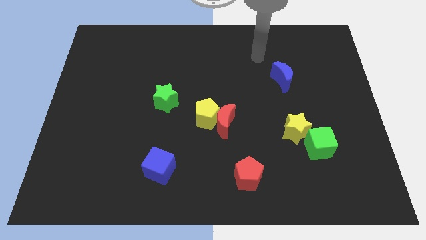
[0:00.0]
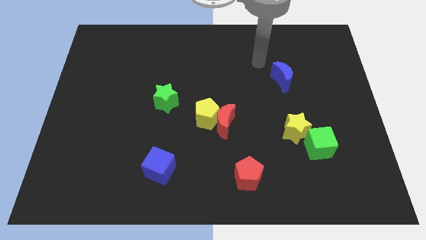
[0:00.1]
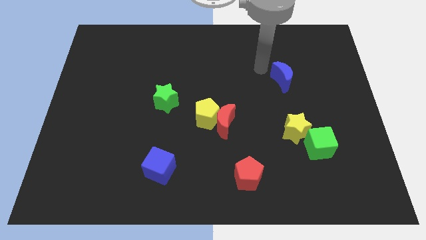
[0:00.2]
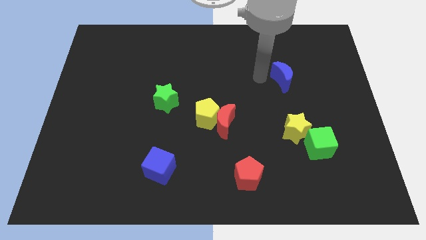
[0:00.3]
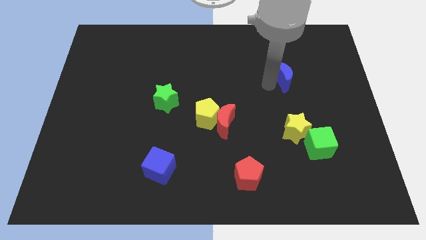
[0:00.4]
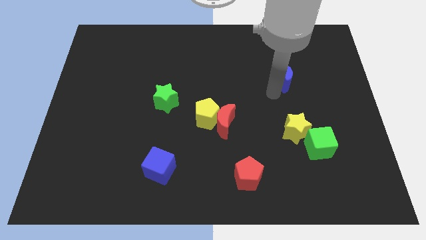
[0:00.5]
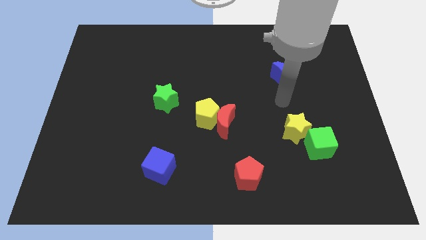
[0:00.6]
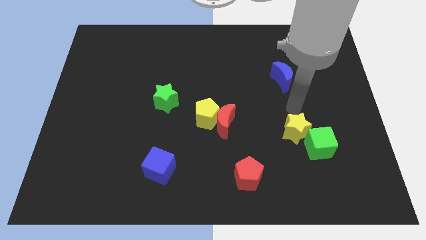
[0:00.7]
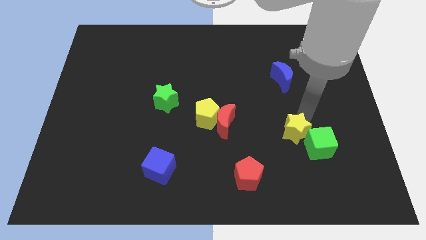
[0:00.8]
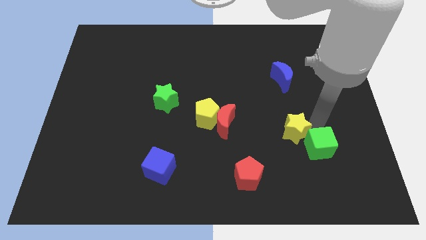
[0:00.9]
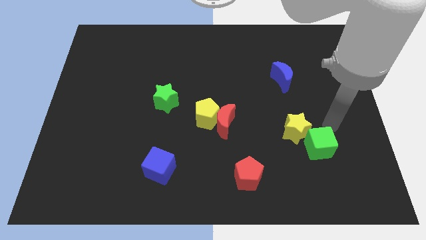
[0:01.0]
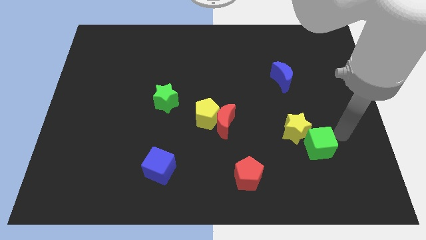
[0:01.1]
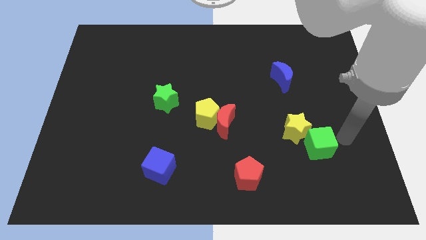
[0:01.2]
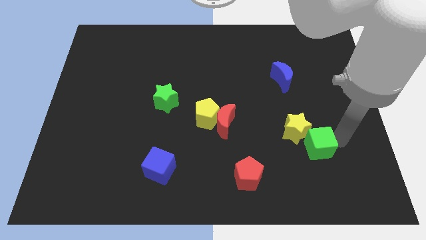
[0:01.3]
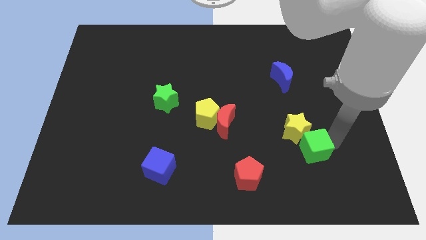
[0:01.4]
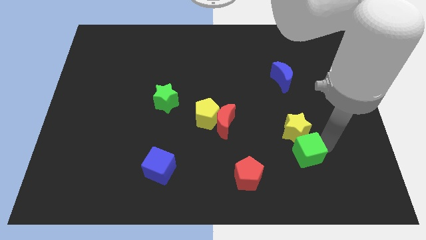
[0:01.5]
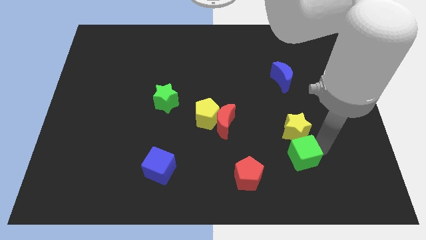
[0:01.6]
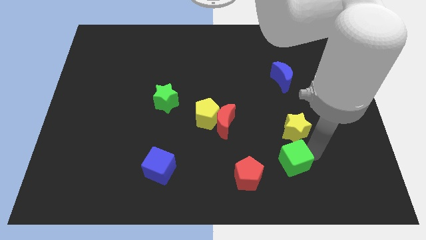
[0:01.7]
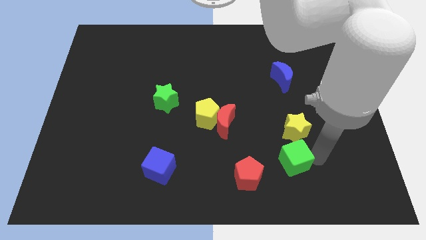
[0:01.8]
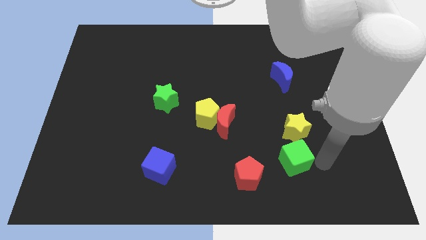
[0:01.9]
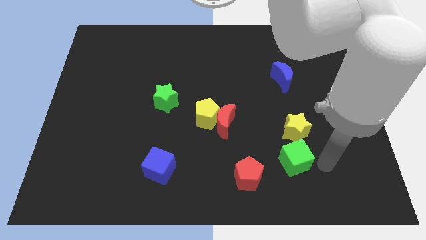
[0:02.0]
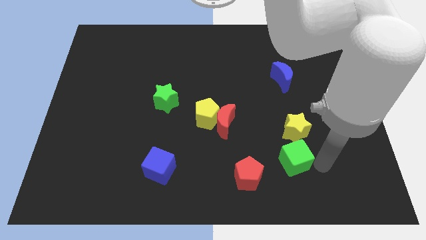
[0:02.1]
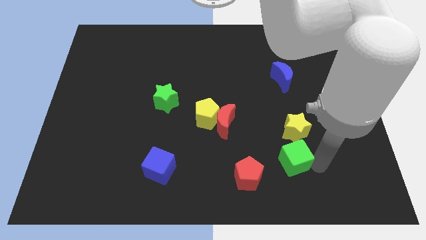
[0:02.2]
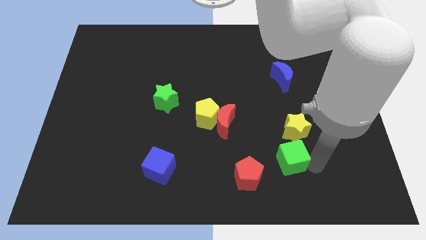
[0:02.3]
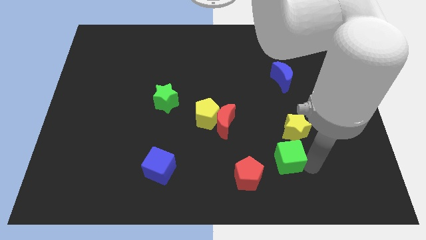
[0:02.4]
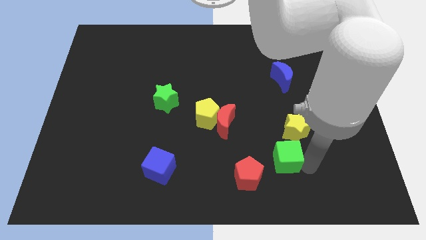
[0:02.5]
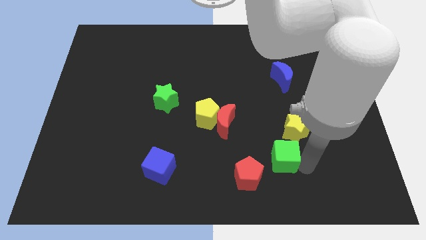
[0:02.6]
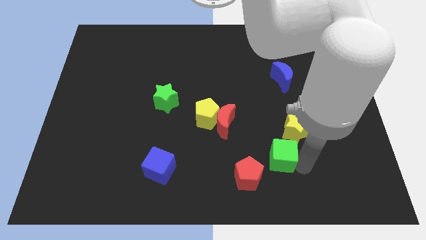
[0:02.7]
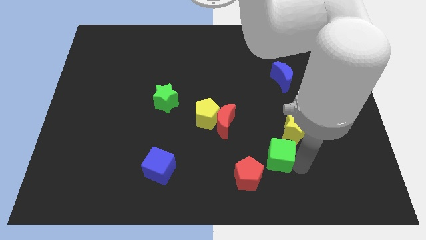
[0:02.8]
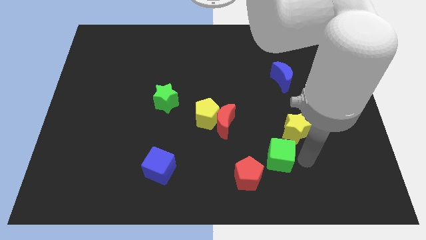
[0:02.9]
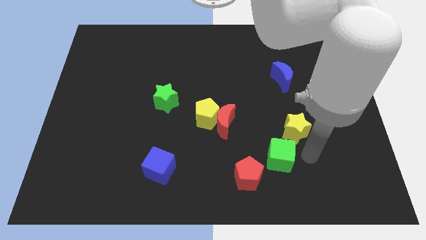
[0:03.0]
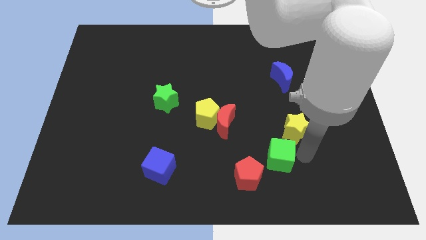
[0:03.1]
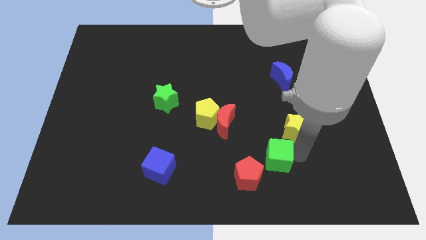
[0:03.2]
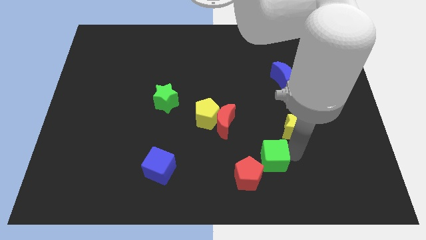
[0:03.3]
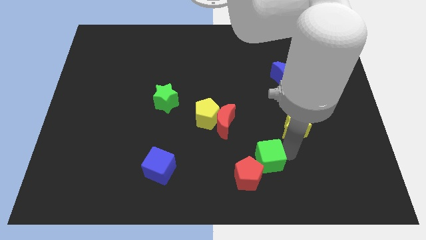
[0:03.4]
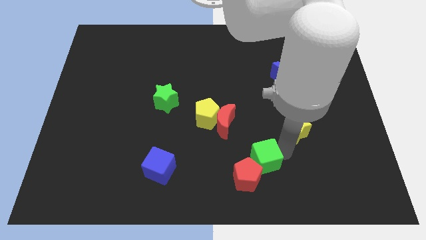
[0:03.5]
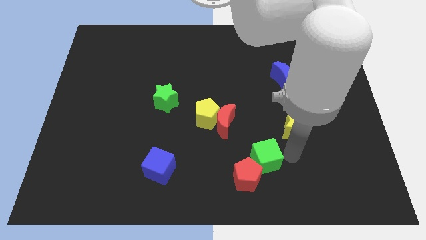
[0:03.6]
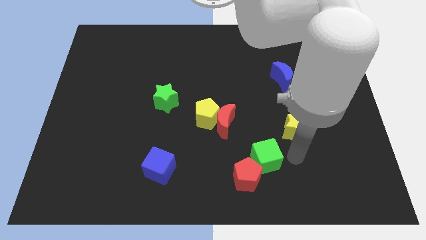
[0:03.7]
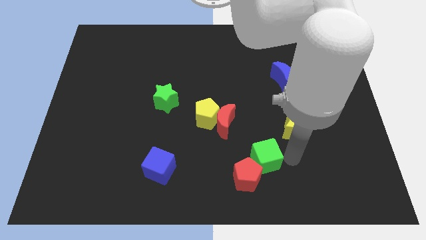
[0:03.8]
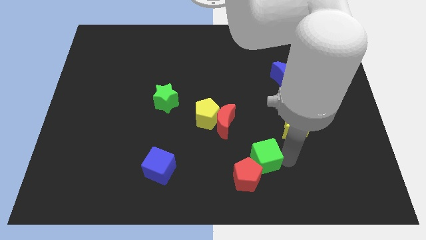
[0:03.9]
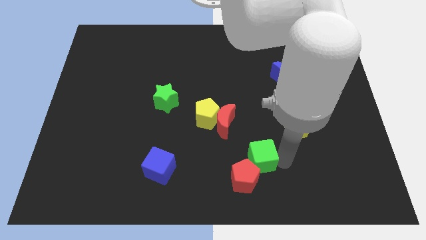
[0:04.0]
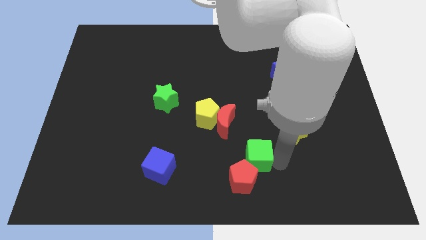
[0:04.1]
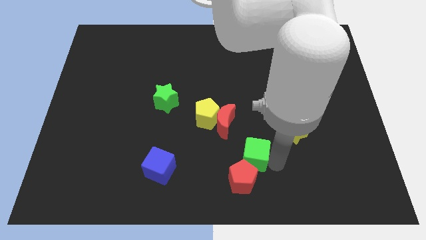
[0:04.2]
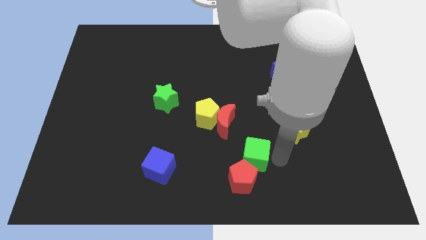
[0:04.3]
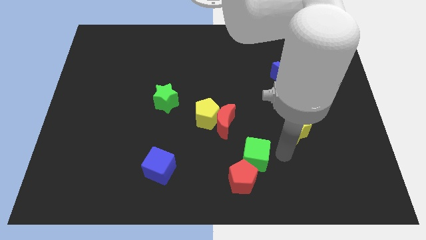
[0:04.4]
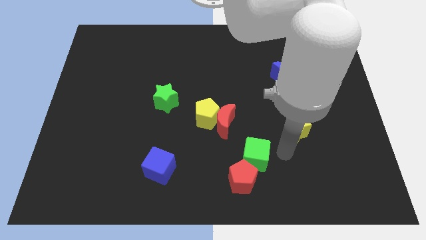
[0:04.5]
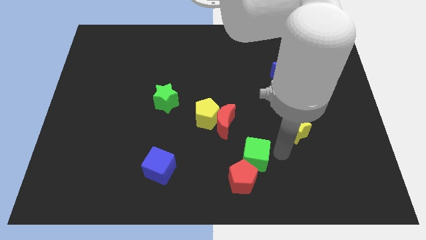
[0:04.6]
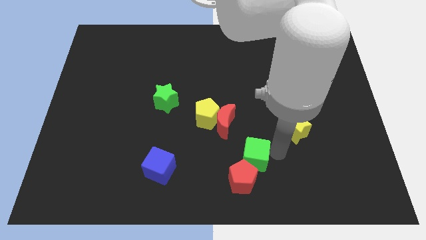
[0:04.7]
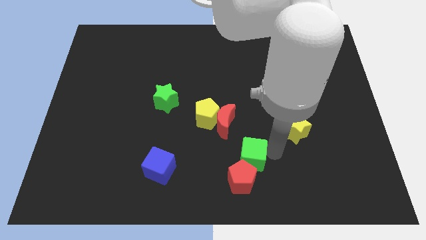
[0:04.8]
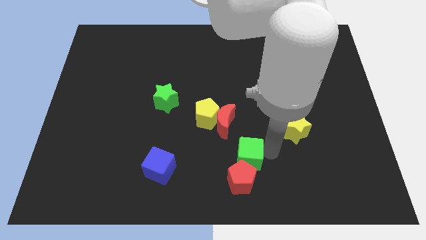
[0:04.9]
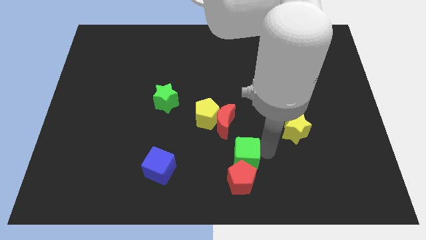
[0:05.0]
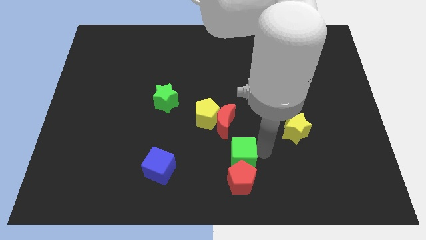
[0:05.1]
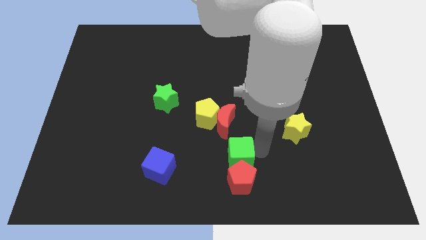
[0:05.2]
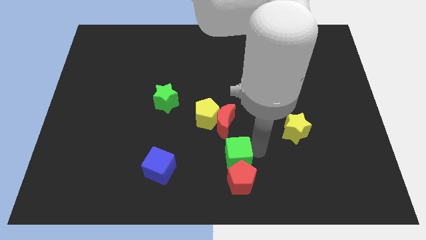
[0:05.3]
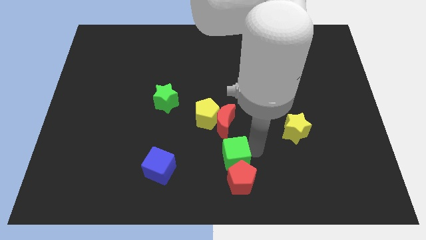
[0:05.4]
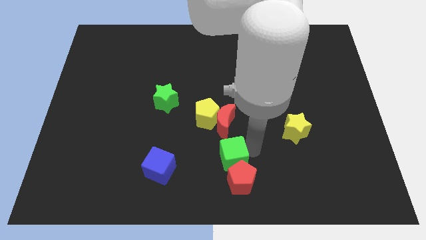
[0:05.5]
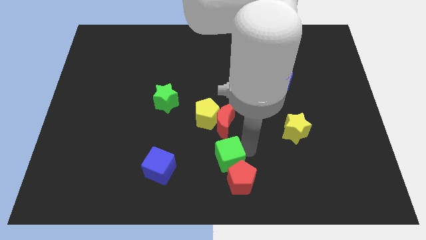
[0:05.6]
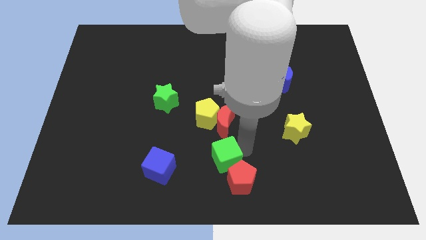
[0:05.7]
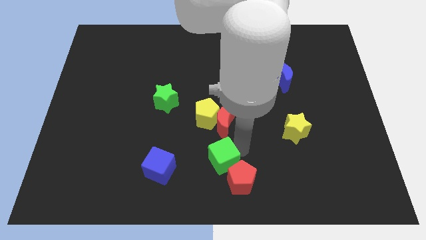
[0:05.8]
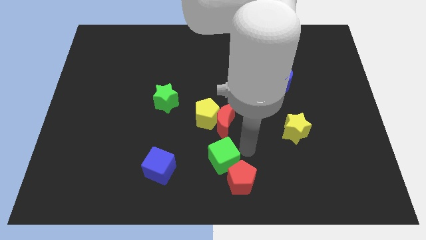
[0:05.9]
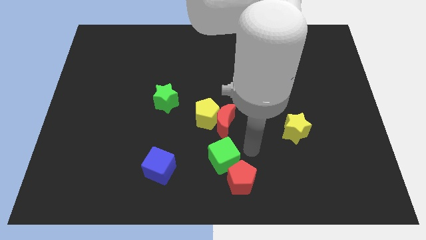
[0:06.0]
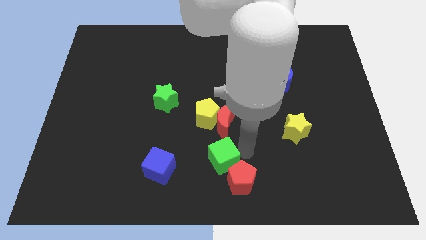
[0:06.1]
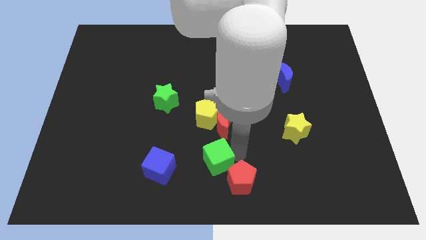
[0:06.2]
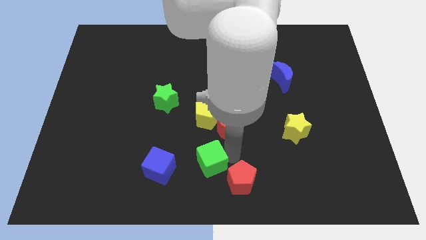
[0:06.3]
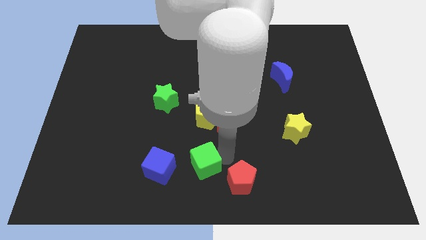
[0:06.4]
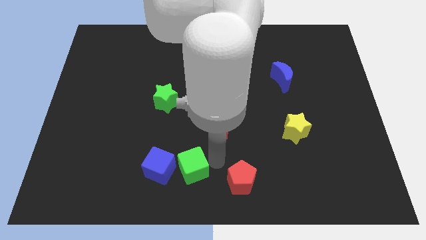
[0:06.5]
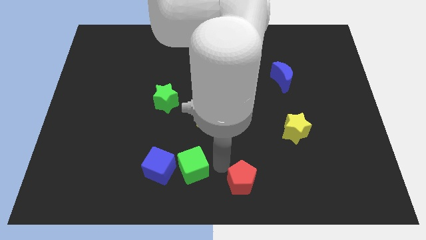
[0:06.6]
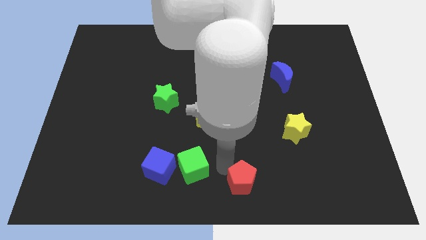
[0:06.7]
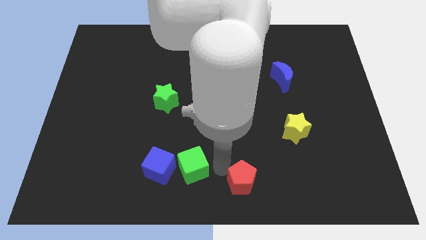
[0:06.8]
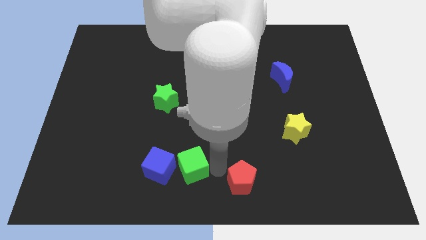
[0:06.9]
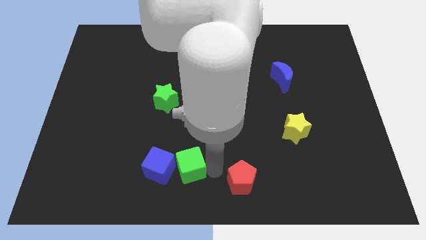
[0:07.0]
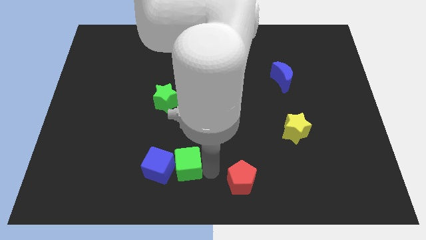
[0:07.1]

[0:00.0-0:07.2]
move the green cube to the blue cube

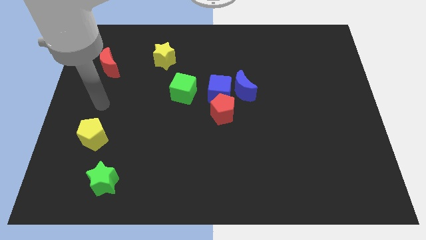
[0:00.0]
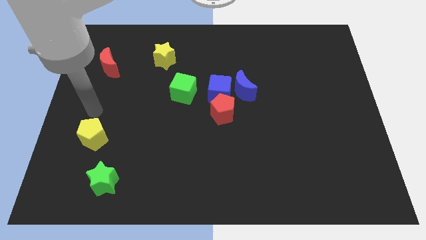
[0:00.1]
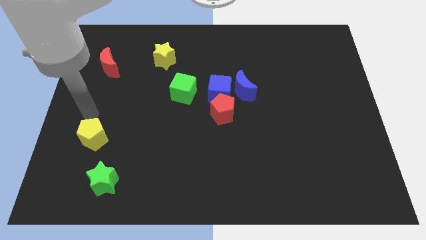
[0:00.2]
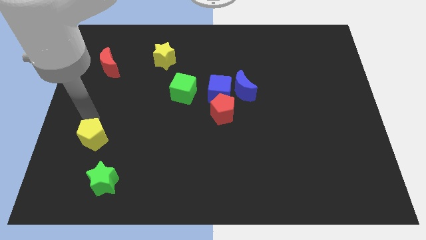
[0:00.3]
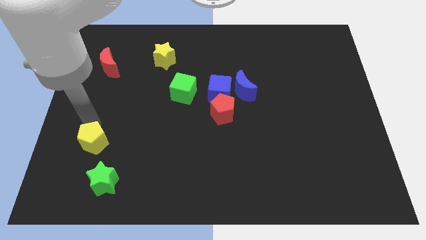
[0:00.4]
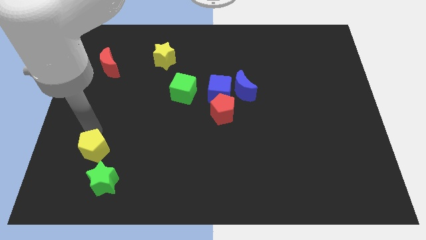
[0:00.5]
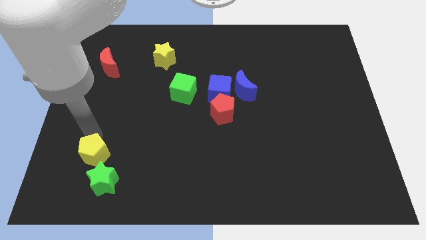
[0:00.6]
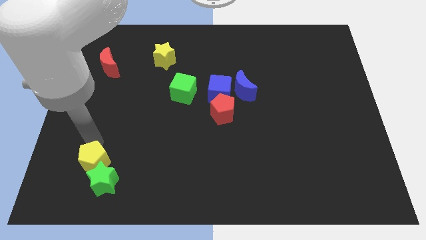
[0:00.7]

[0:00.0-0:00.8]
move the yellow pentagon to the green star
